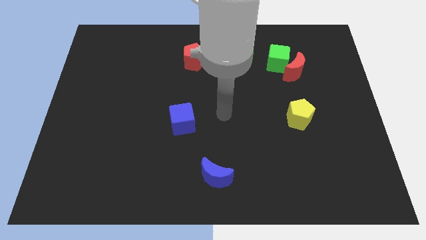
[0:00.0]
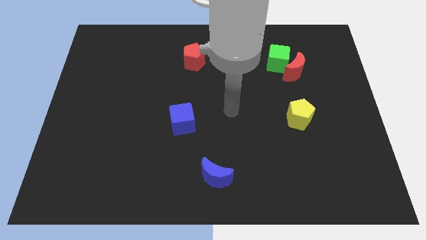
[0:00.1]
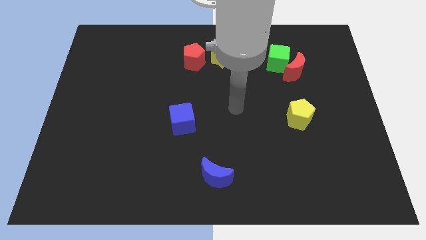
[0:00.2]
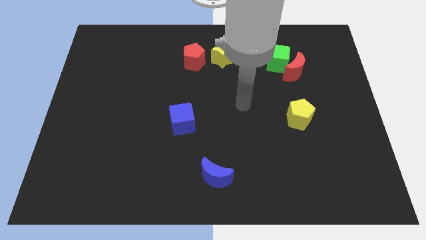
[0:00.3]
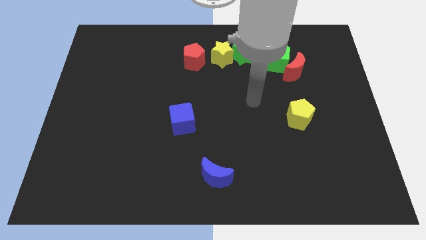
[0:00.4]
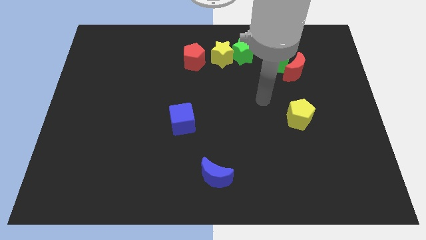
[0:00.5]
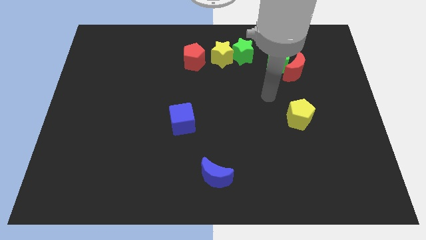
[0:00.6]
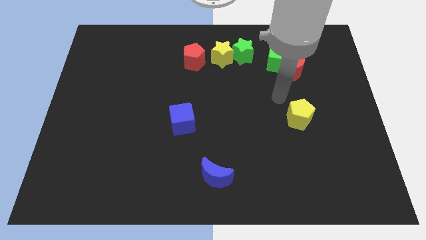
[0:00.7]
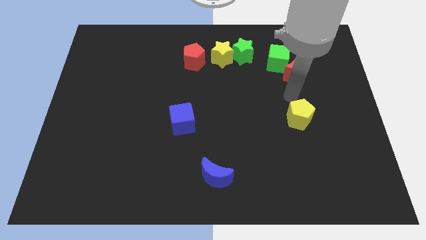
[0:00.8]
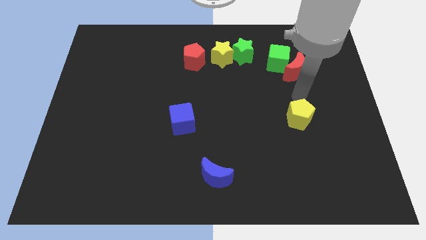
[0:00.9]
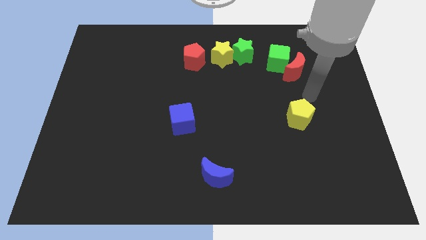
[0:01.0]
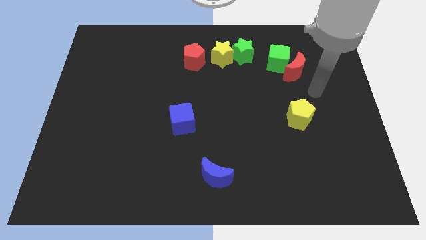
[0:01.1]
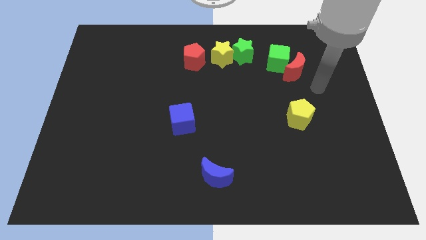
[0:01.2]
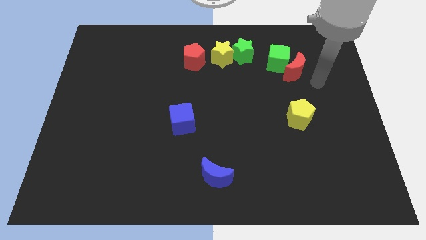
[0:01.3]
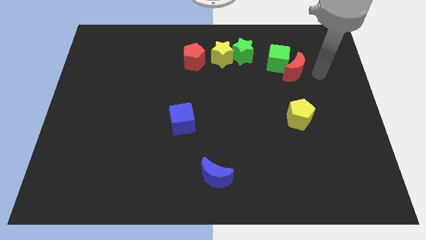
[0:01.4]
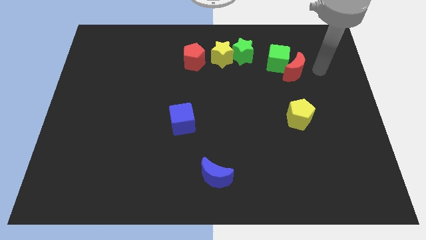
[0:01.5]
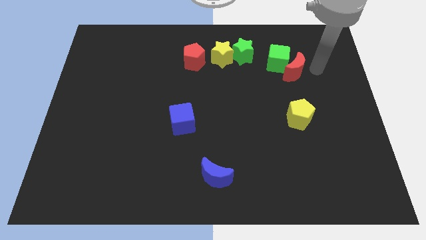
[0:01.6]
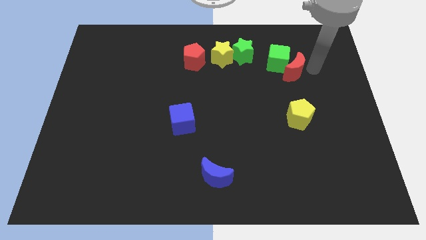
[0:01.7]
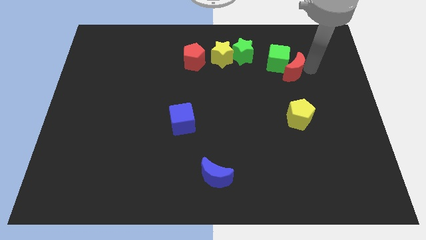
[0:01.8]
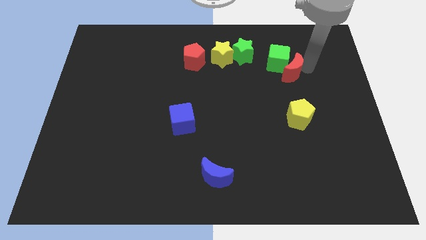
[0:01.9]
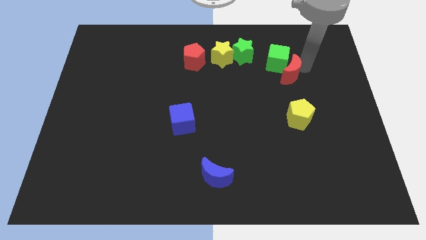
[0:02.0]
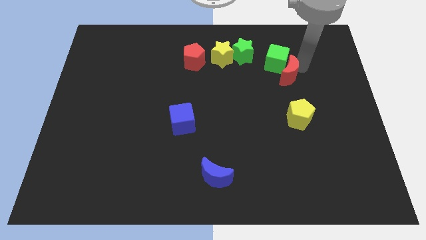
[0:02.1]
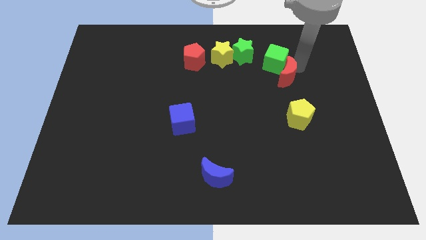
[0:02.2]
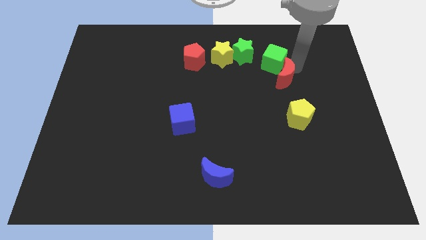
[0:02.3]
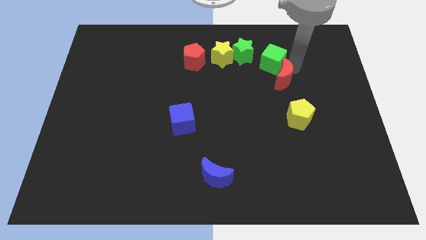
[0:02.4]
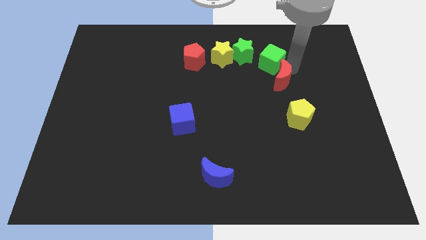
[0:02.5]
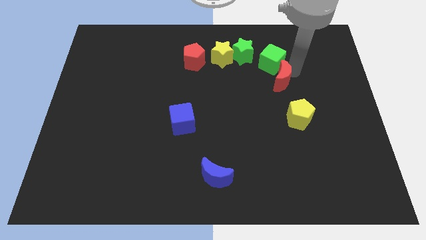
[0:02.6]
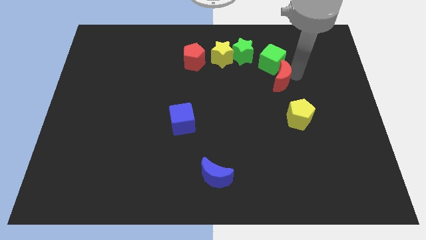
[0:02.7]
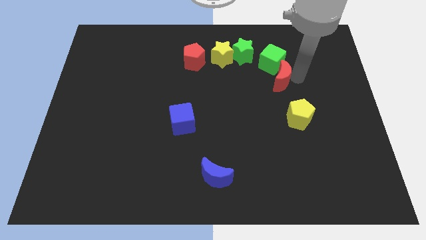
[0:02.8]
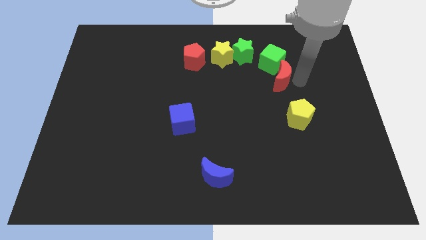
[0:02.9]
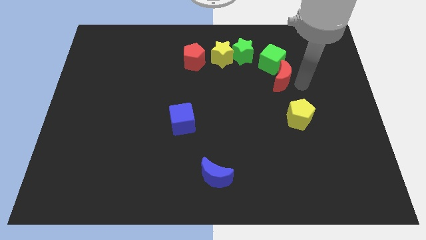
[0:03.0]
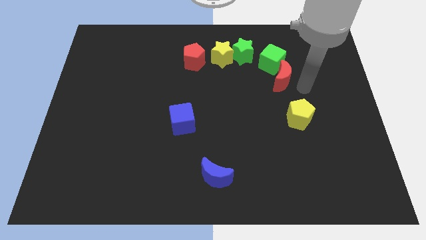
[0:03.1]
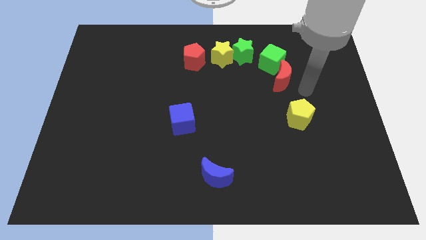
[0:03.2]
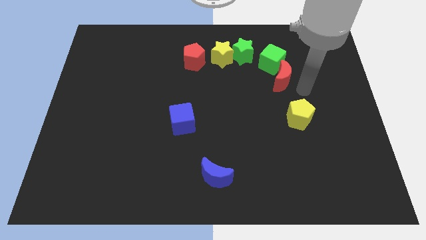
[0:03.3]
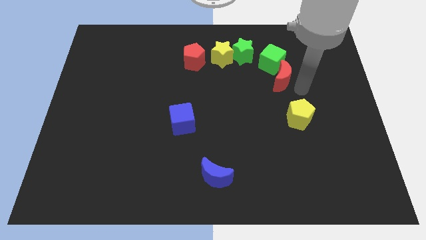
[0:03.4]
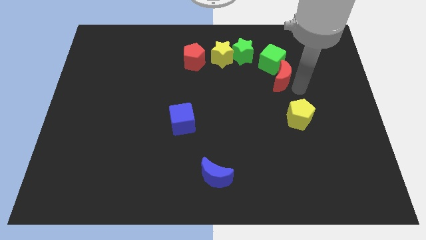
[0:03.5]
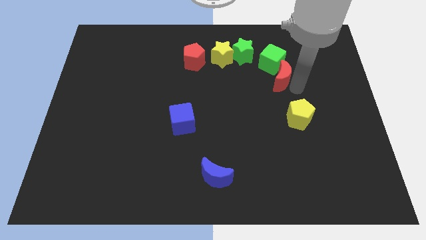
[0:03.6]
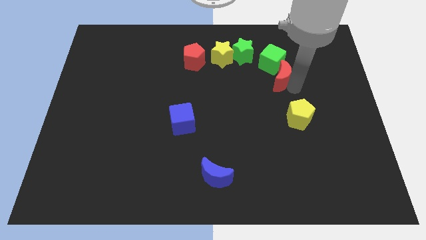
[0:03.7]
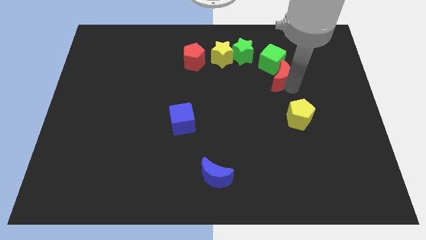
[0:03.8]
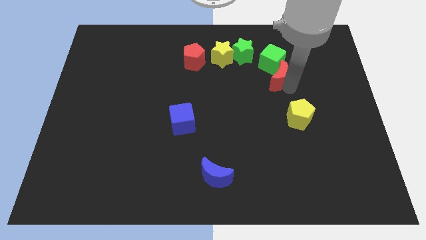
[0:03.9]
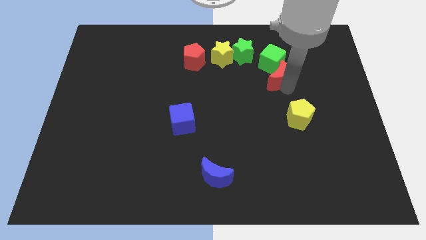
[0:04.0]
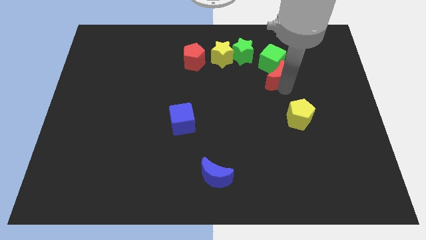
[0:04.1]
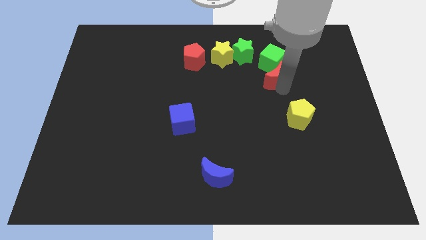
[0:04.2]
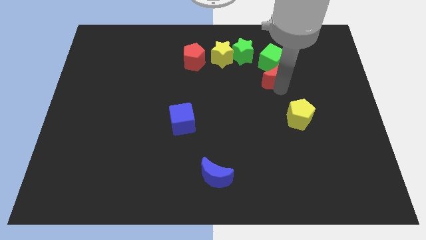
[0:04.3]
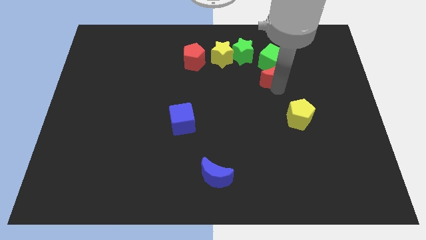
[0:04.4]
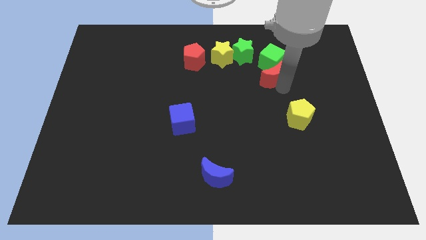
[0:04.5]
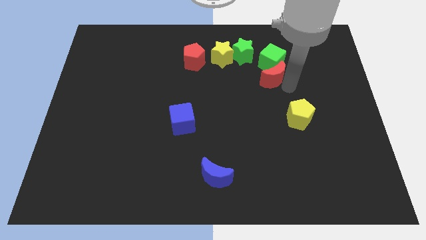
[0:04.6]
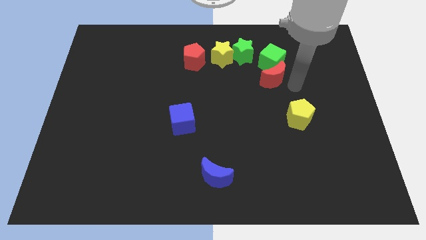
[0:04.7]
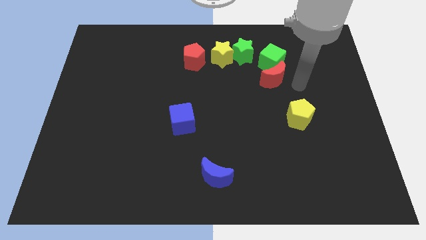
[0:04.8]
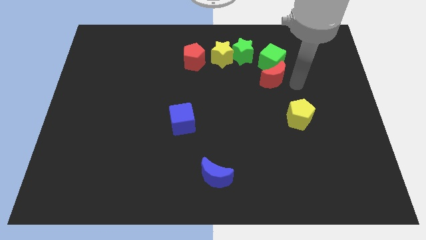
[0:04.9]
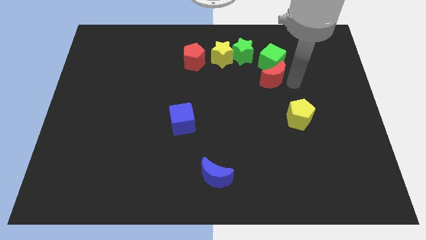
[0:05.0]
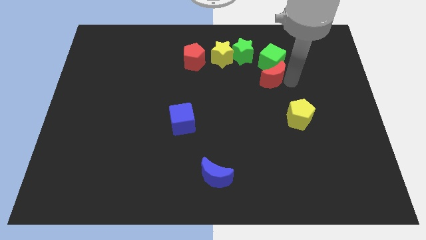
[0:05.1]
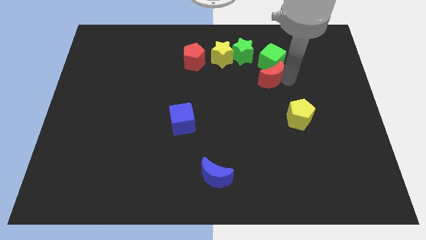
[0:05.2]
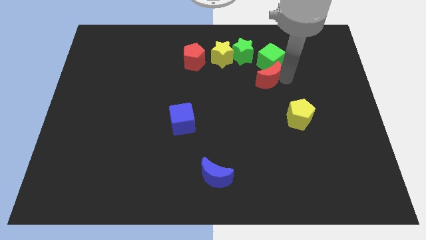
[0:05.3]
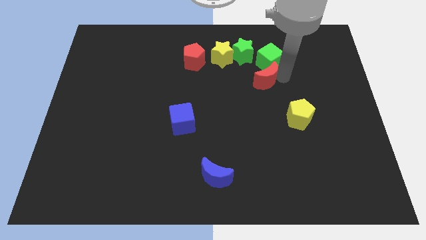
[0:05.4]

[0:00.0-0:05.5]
slightly slide the red moon to the left

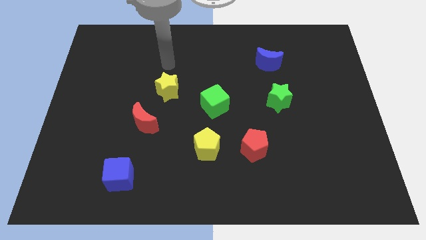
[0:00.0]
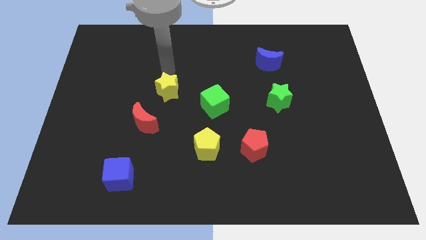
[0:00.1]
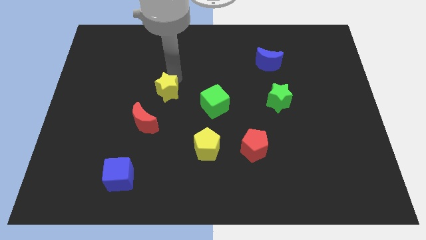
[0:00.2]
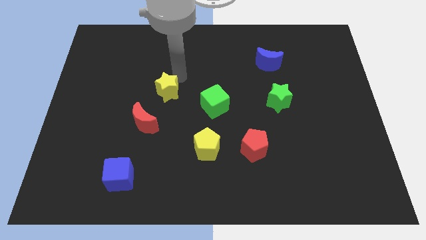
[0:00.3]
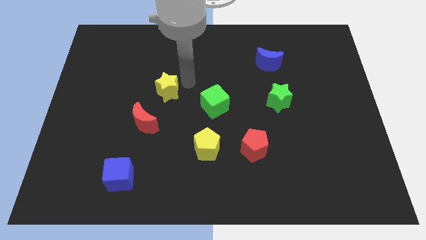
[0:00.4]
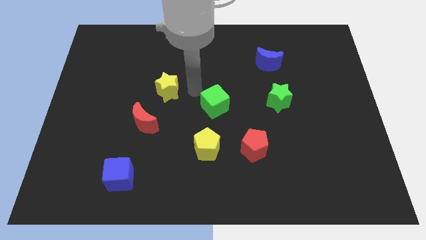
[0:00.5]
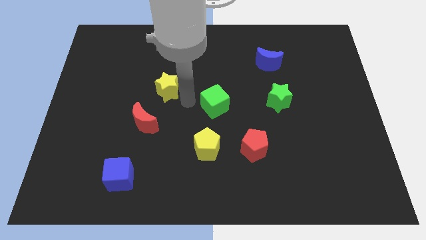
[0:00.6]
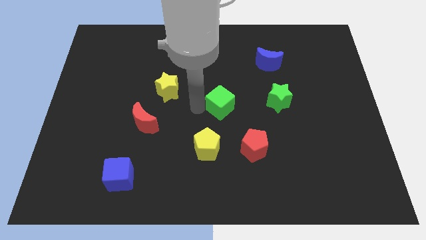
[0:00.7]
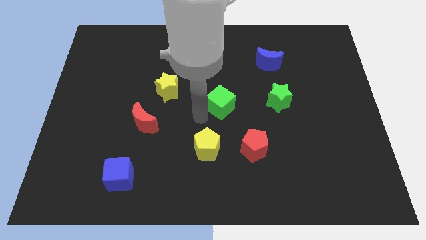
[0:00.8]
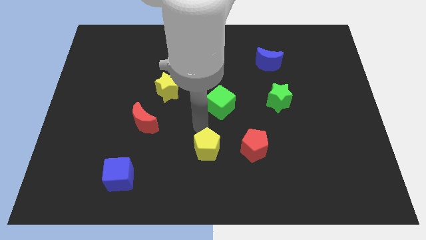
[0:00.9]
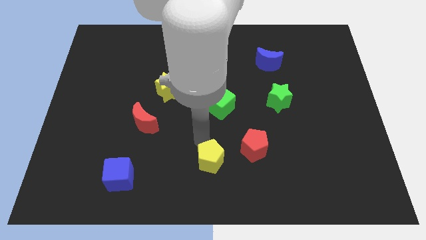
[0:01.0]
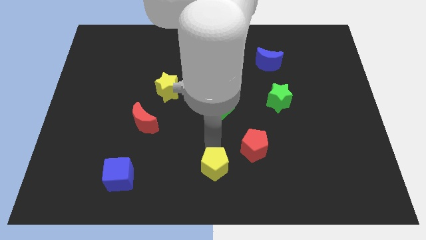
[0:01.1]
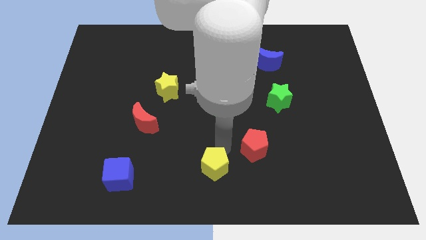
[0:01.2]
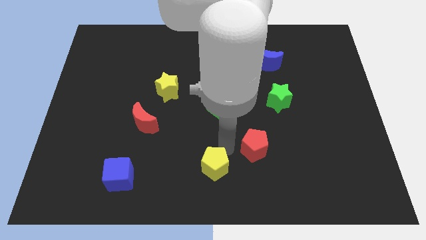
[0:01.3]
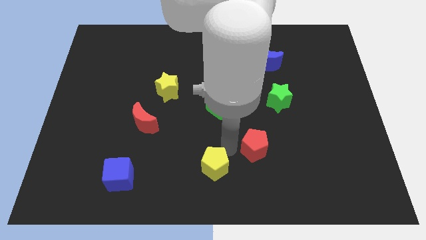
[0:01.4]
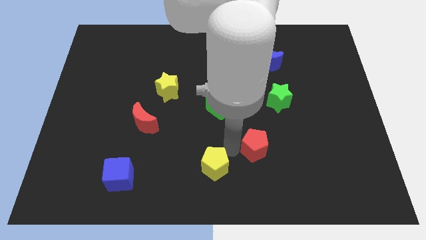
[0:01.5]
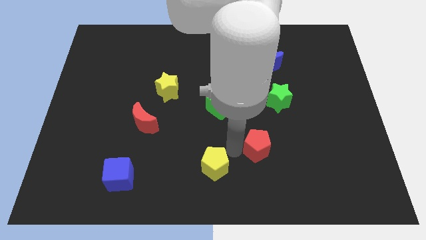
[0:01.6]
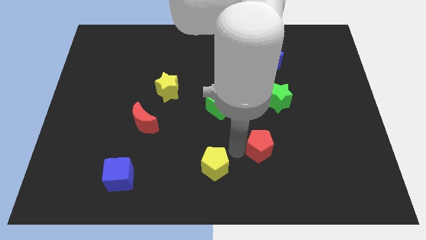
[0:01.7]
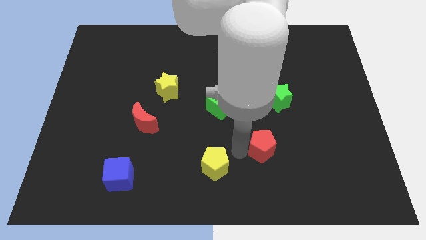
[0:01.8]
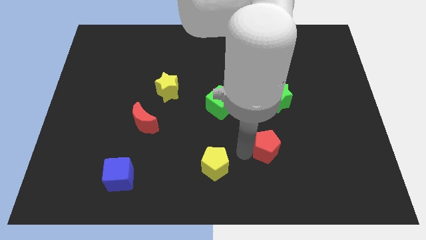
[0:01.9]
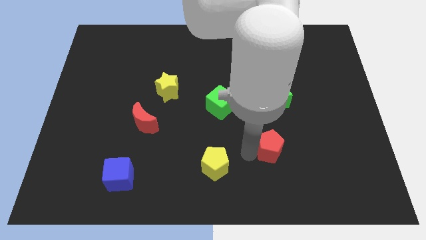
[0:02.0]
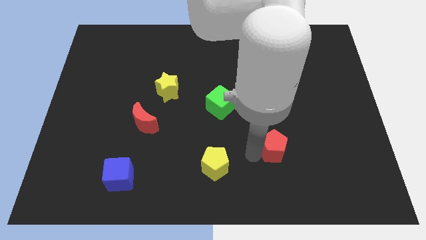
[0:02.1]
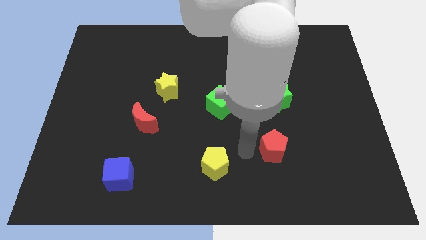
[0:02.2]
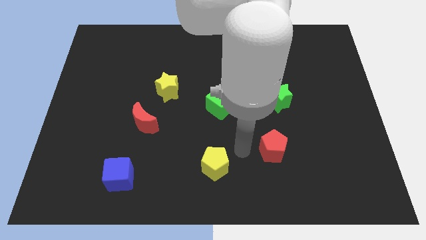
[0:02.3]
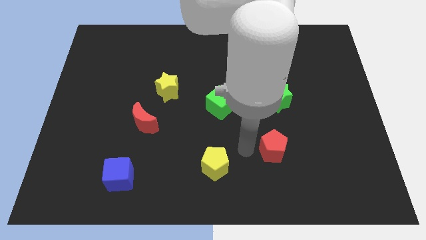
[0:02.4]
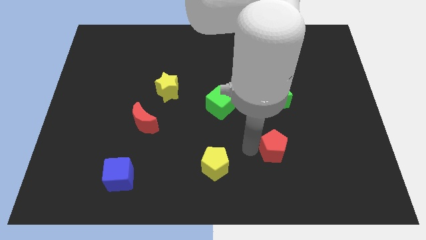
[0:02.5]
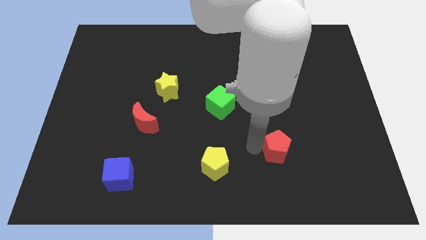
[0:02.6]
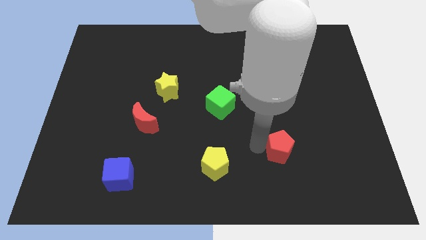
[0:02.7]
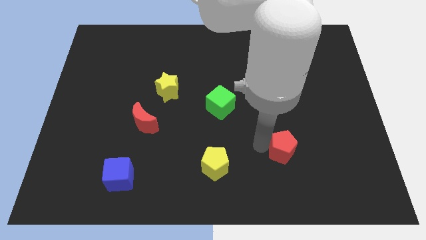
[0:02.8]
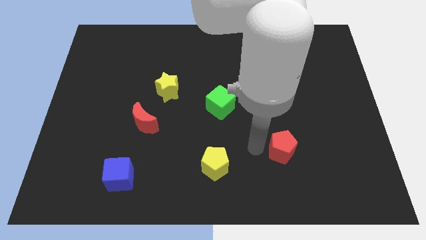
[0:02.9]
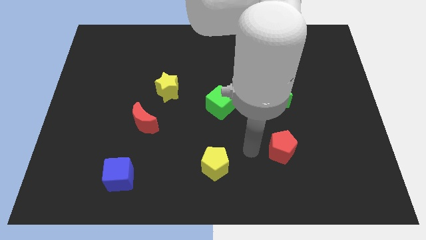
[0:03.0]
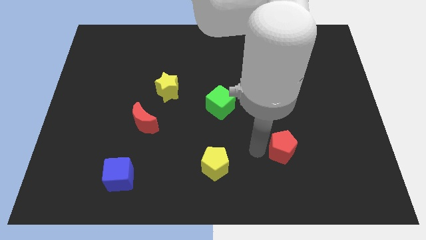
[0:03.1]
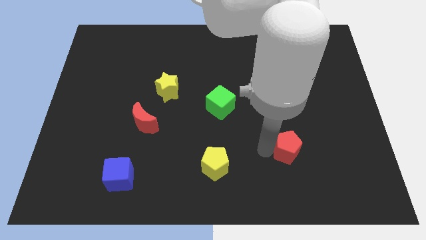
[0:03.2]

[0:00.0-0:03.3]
push the red pentagon slightly right
